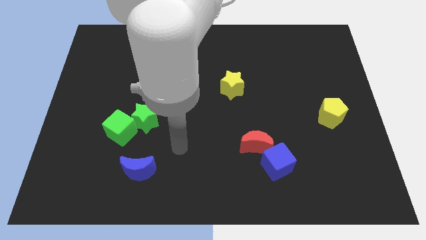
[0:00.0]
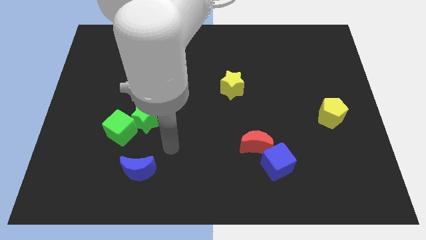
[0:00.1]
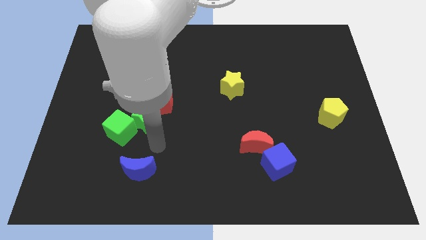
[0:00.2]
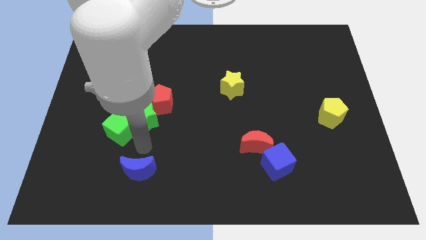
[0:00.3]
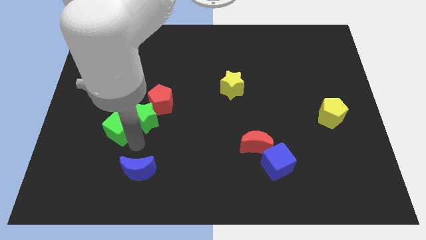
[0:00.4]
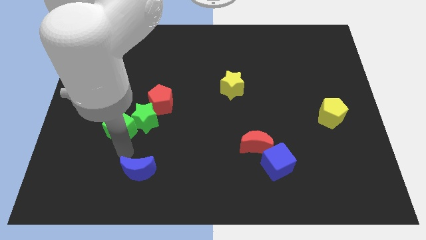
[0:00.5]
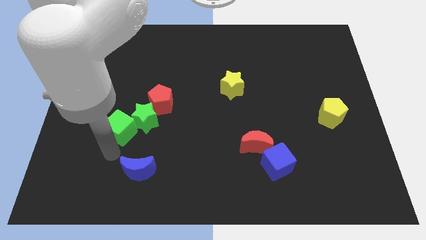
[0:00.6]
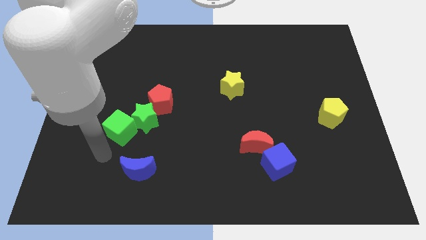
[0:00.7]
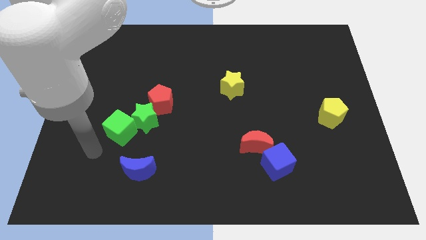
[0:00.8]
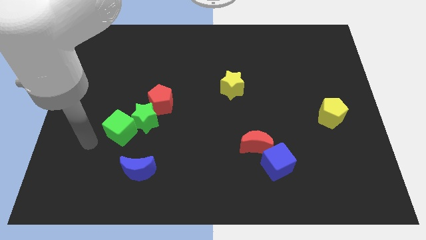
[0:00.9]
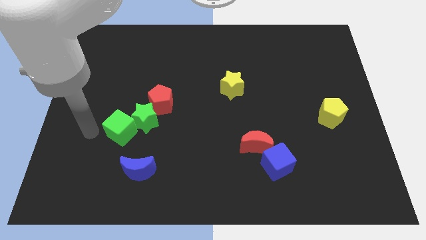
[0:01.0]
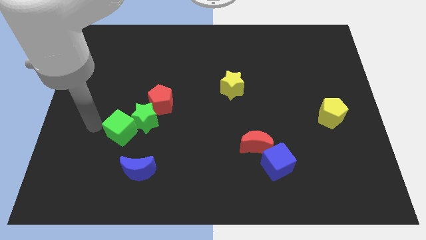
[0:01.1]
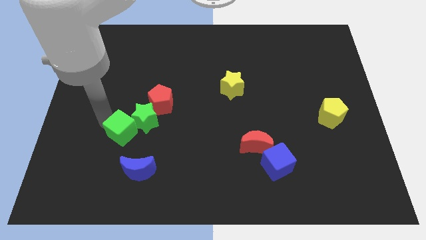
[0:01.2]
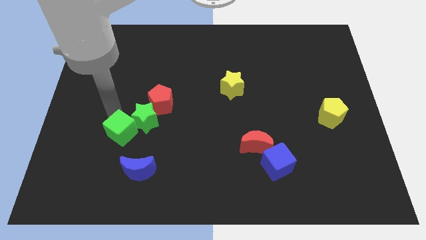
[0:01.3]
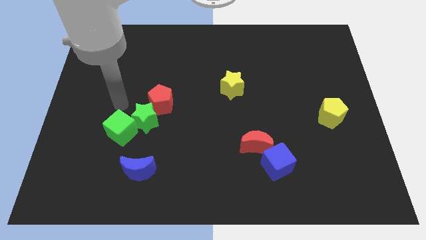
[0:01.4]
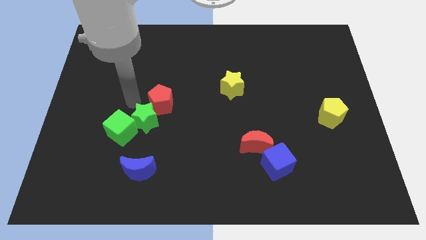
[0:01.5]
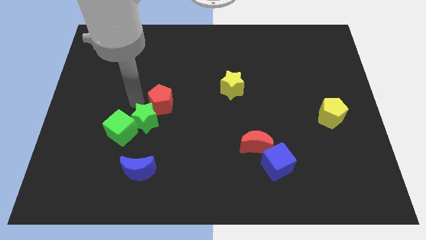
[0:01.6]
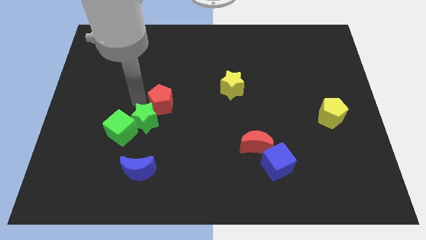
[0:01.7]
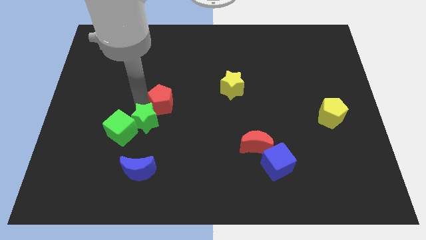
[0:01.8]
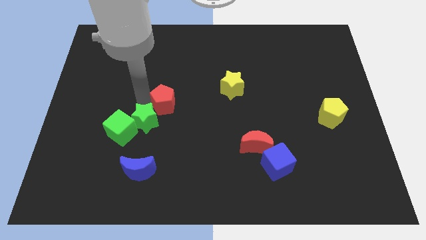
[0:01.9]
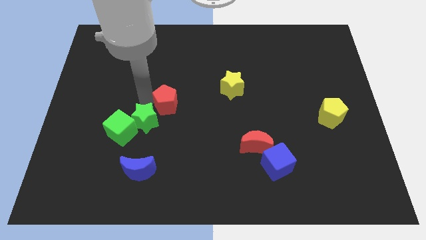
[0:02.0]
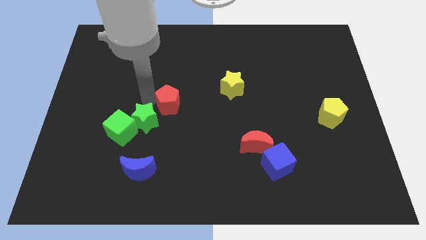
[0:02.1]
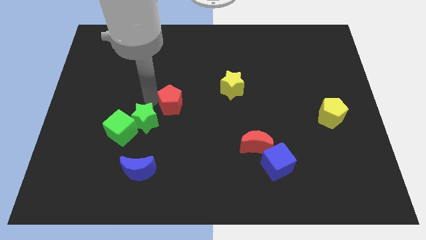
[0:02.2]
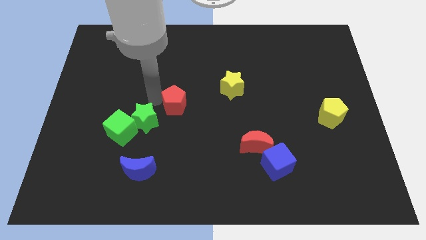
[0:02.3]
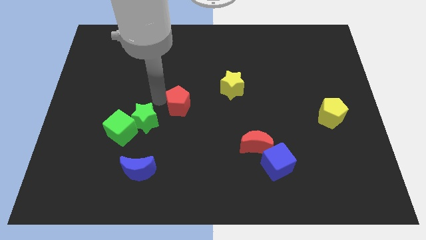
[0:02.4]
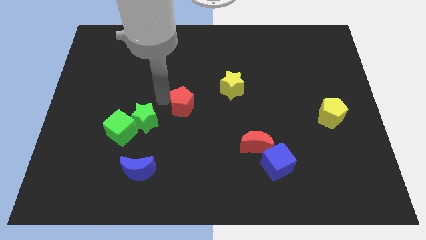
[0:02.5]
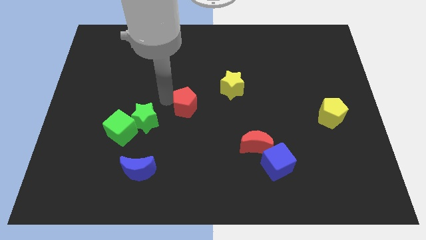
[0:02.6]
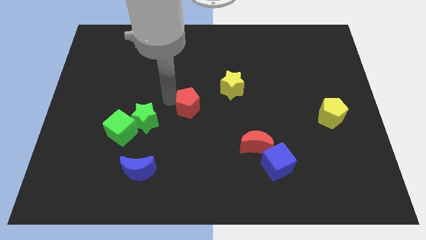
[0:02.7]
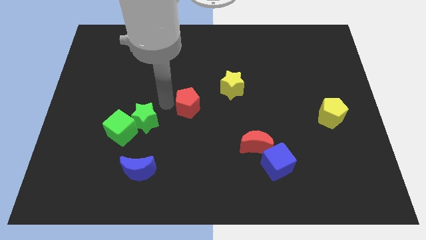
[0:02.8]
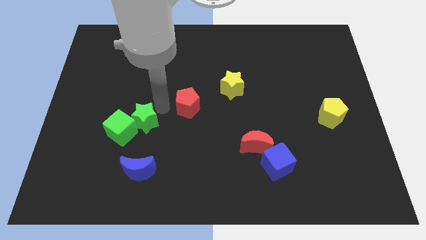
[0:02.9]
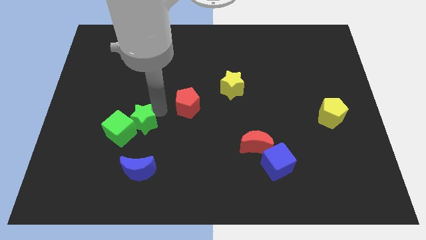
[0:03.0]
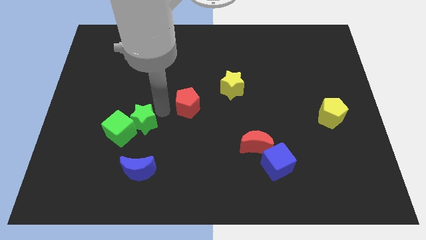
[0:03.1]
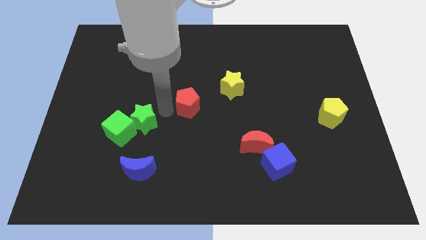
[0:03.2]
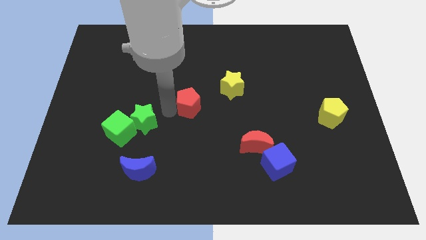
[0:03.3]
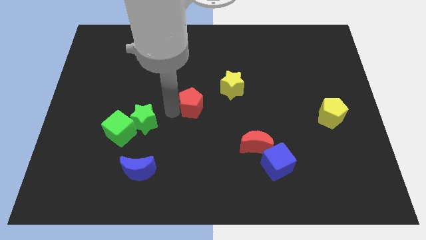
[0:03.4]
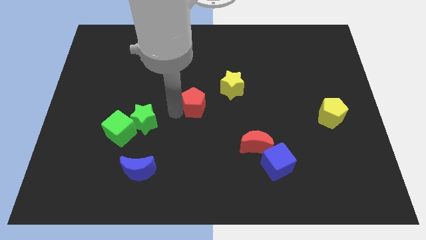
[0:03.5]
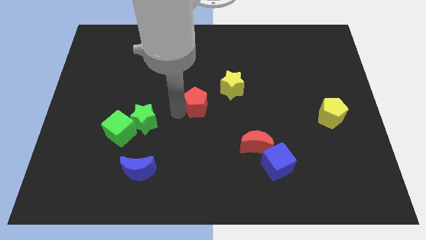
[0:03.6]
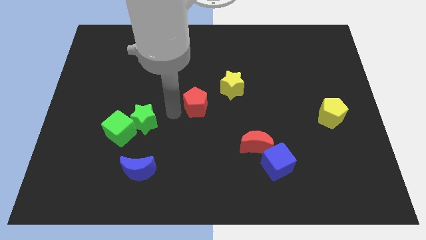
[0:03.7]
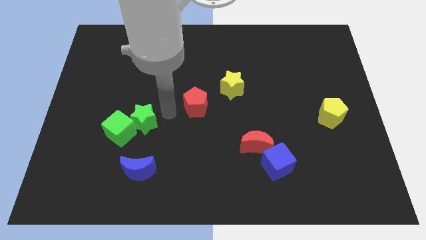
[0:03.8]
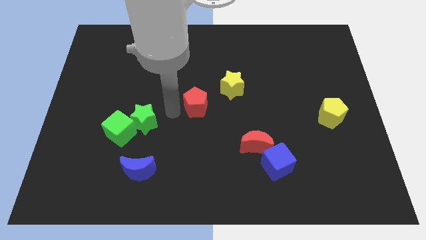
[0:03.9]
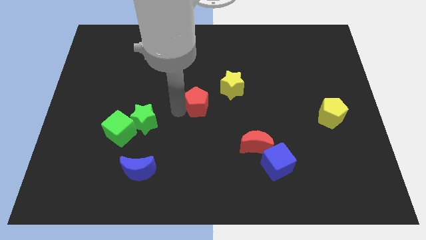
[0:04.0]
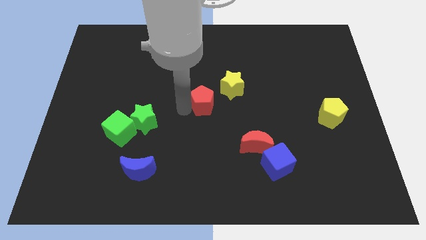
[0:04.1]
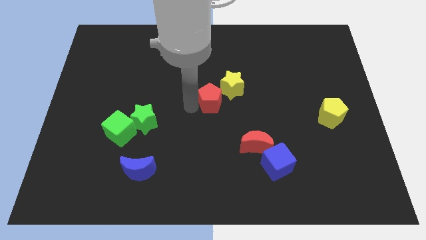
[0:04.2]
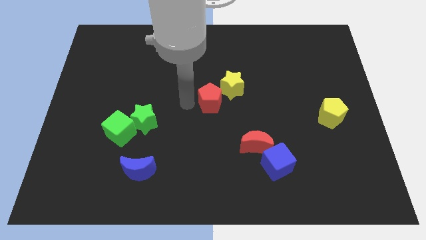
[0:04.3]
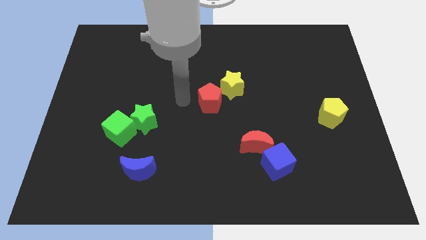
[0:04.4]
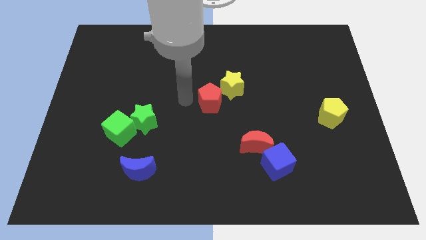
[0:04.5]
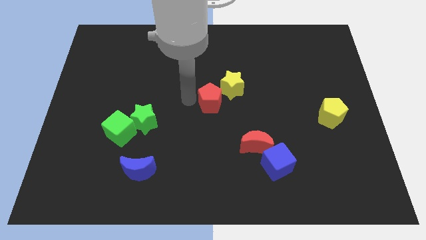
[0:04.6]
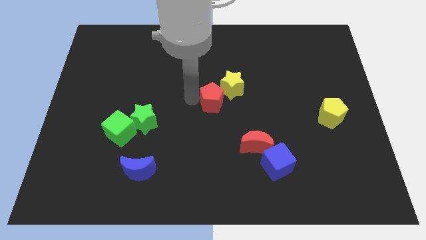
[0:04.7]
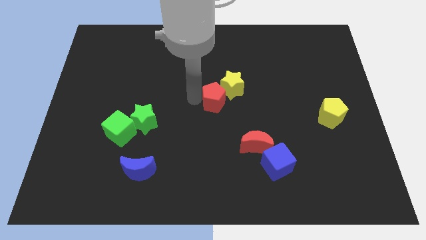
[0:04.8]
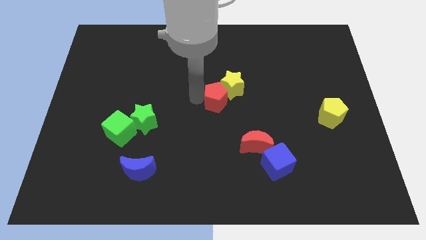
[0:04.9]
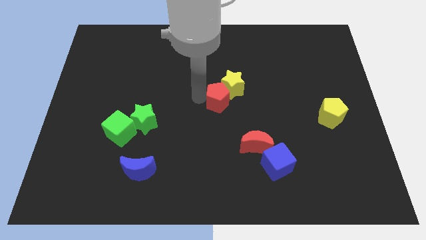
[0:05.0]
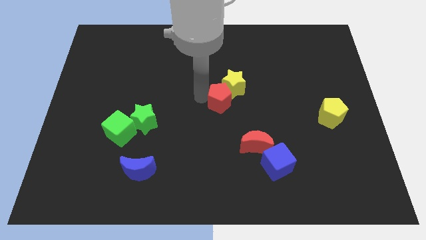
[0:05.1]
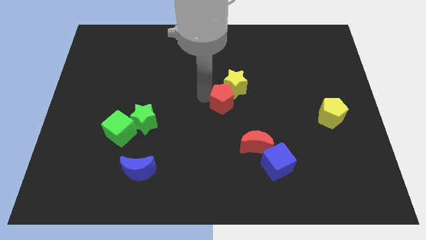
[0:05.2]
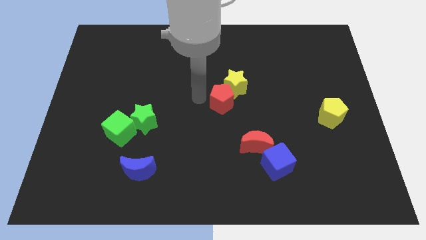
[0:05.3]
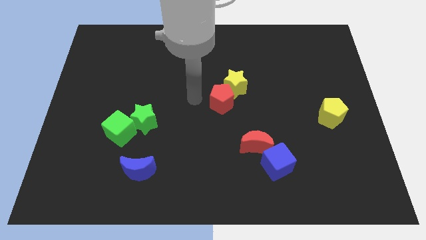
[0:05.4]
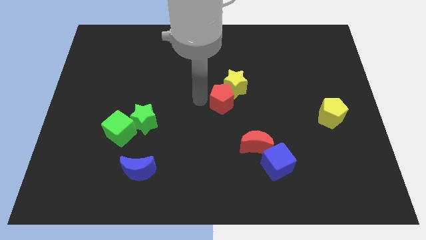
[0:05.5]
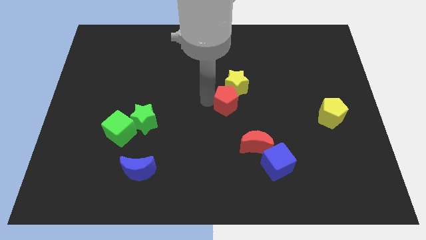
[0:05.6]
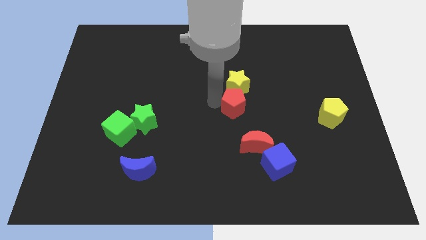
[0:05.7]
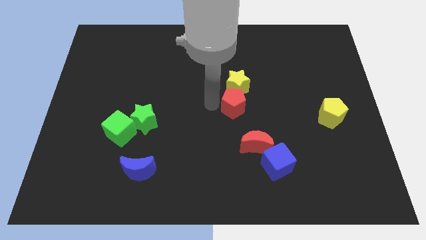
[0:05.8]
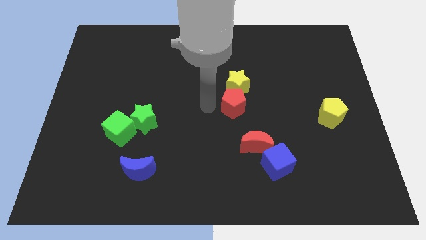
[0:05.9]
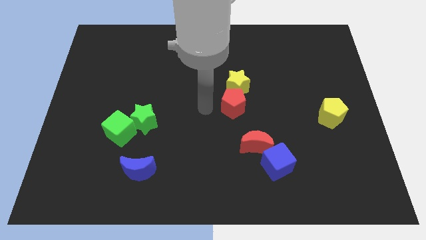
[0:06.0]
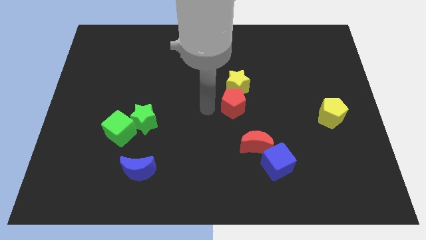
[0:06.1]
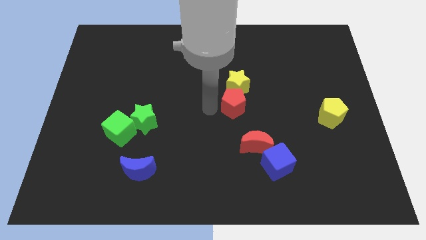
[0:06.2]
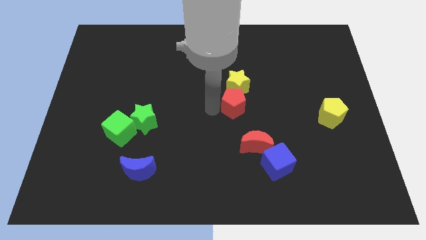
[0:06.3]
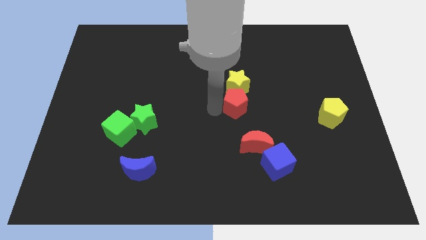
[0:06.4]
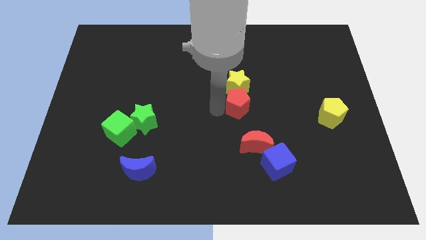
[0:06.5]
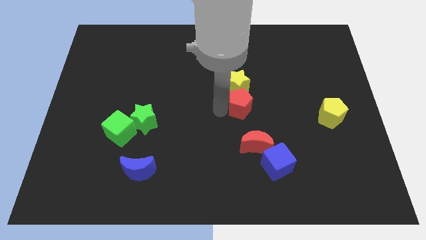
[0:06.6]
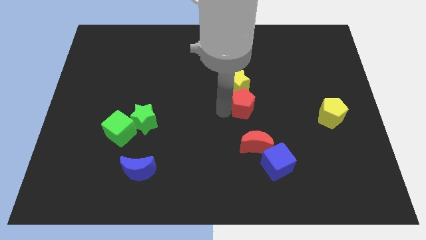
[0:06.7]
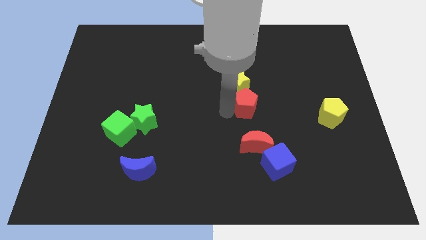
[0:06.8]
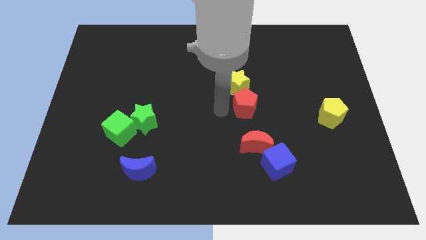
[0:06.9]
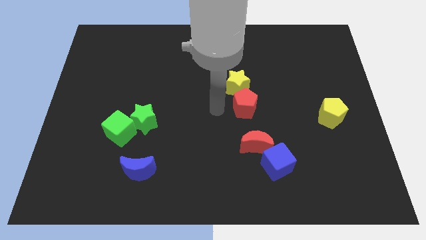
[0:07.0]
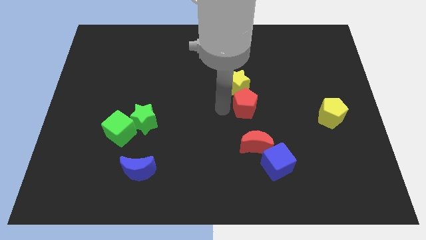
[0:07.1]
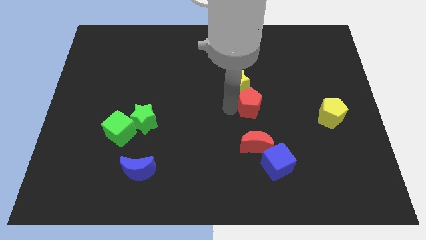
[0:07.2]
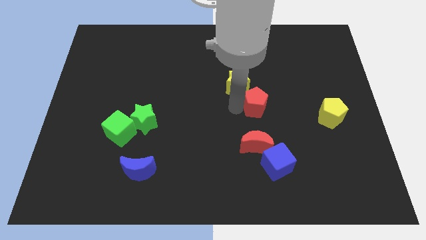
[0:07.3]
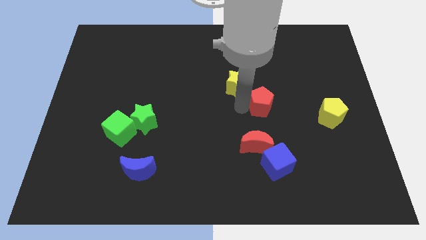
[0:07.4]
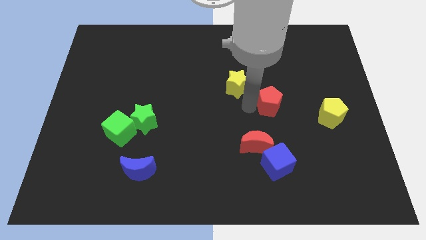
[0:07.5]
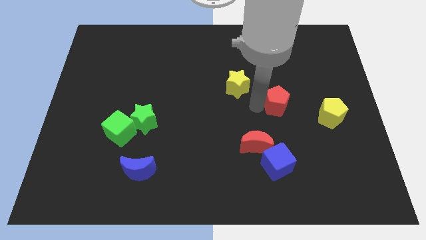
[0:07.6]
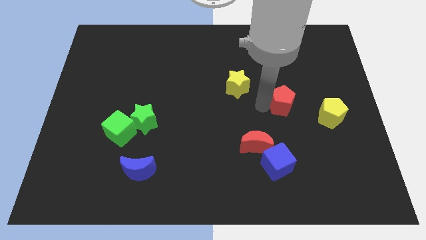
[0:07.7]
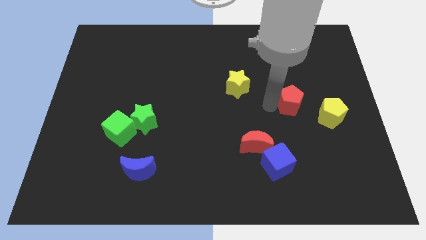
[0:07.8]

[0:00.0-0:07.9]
put the red pentagon diagonally up and to the left of the yellow pentagon
